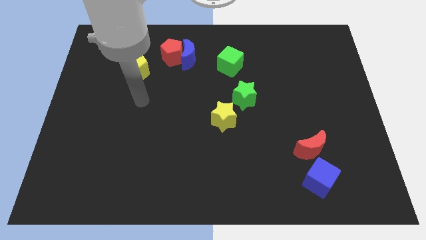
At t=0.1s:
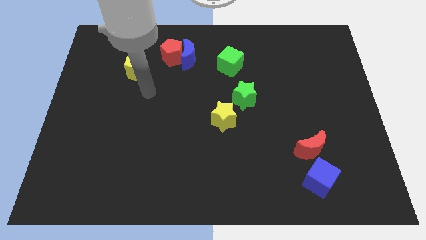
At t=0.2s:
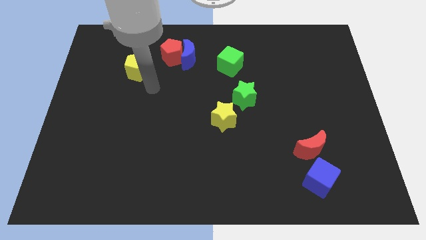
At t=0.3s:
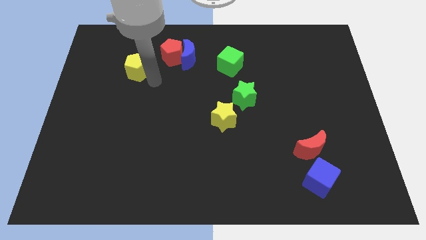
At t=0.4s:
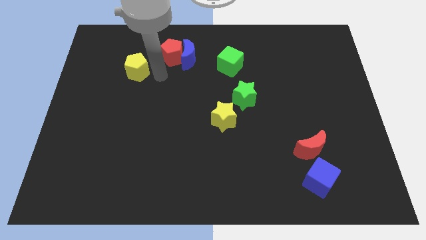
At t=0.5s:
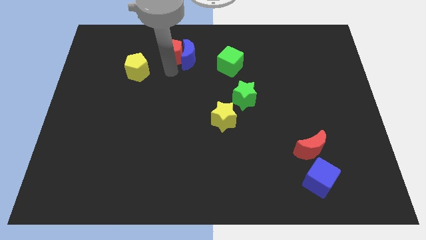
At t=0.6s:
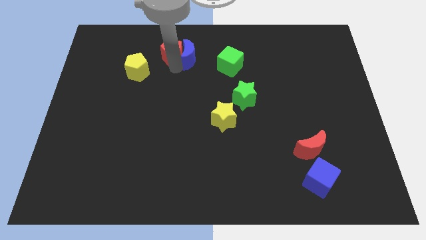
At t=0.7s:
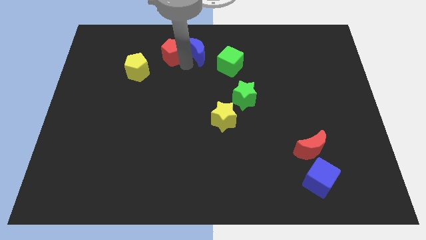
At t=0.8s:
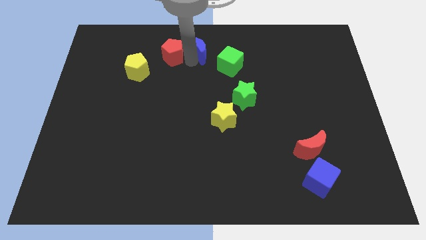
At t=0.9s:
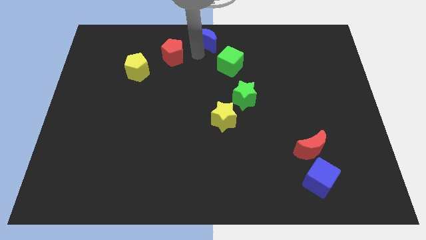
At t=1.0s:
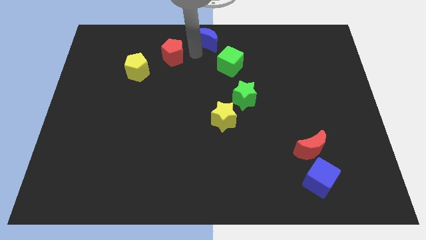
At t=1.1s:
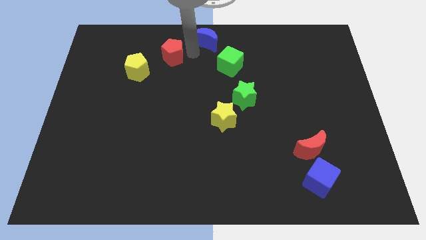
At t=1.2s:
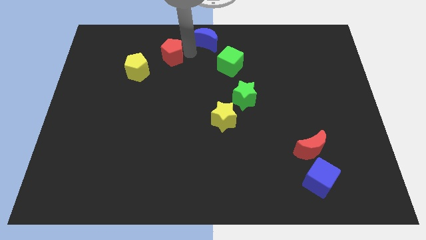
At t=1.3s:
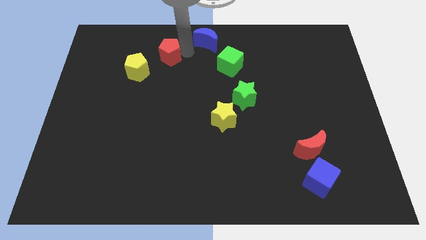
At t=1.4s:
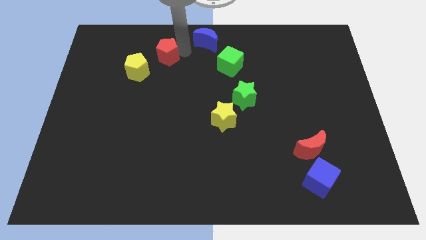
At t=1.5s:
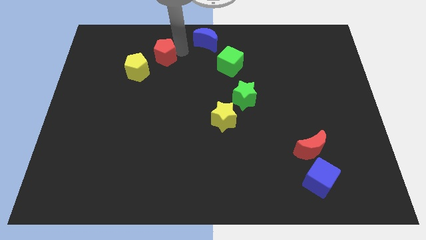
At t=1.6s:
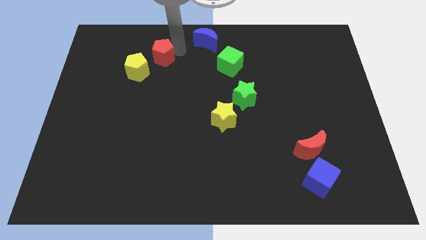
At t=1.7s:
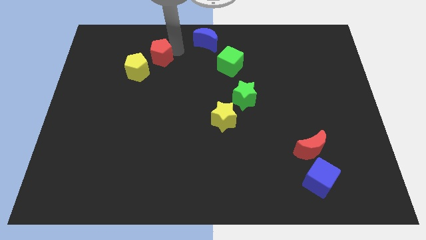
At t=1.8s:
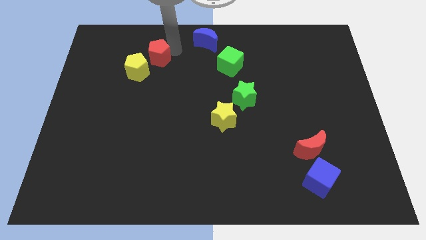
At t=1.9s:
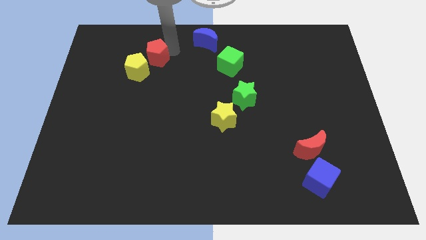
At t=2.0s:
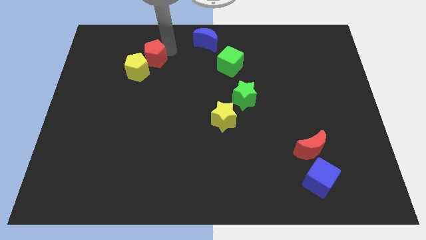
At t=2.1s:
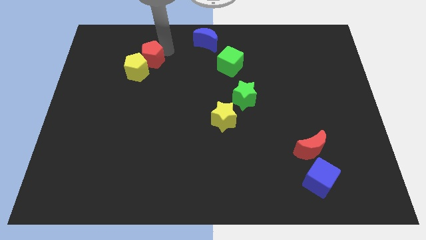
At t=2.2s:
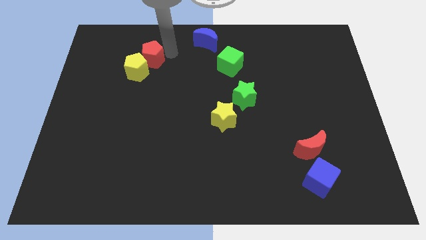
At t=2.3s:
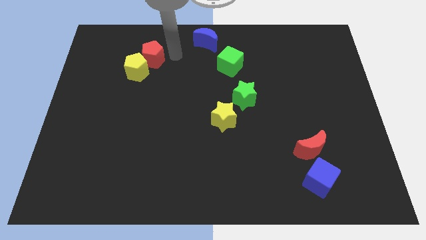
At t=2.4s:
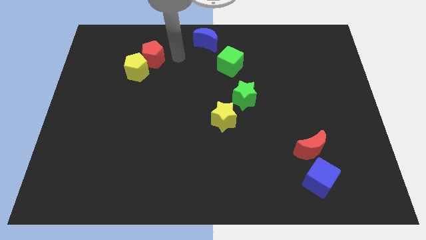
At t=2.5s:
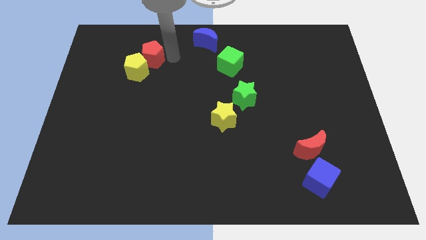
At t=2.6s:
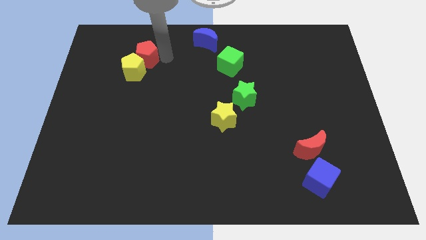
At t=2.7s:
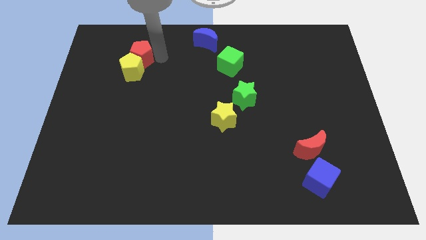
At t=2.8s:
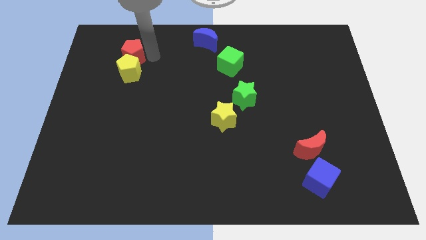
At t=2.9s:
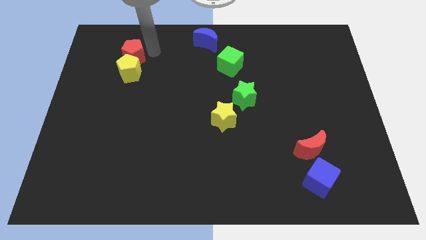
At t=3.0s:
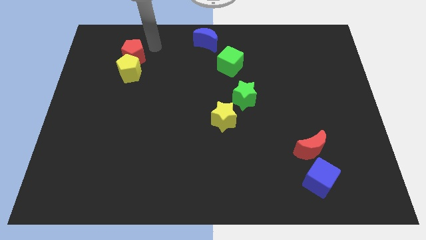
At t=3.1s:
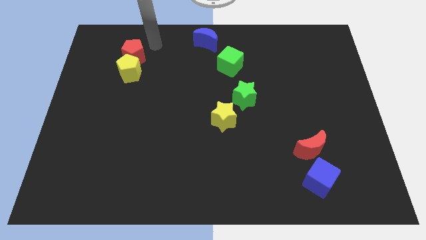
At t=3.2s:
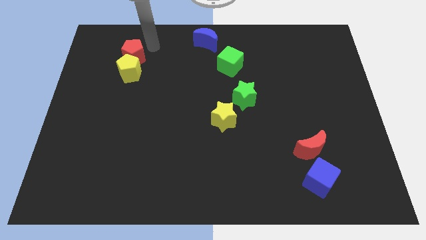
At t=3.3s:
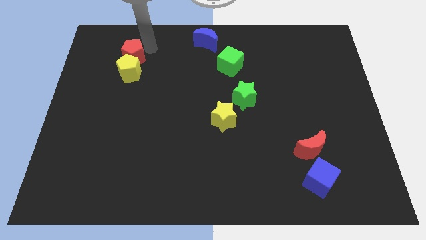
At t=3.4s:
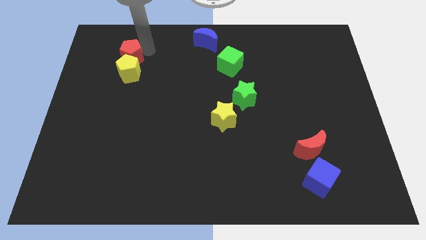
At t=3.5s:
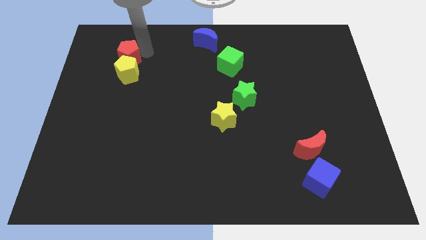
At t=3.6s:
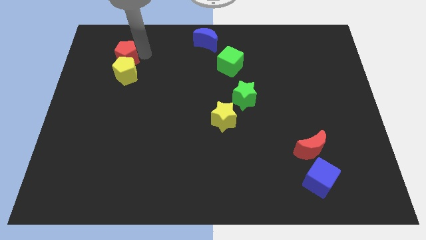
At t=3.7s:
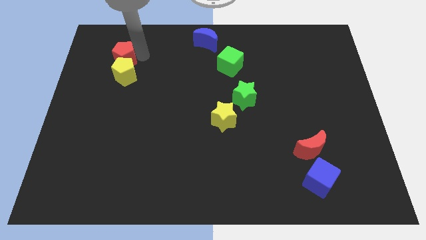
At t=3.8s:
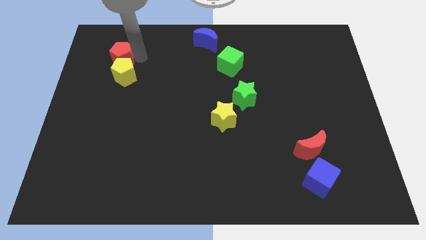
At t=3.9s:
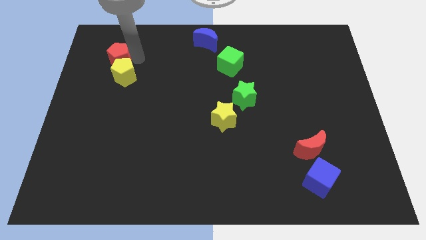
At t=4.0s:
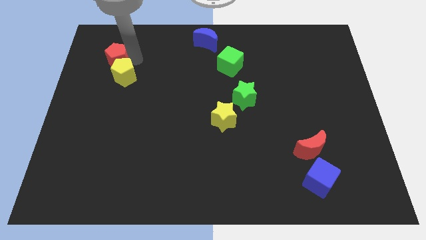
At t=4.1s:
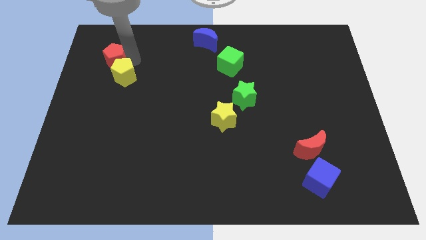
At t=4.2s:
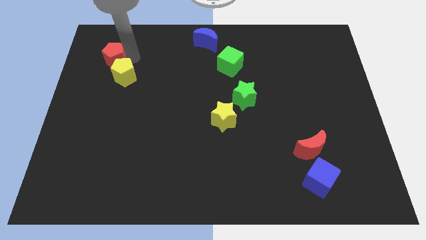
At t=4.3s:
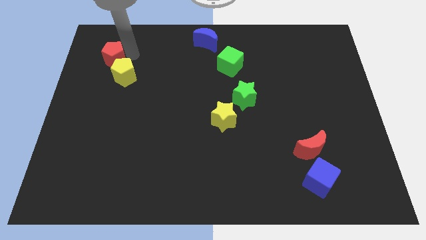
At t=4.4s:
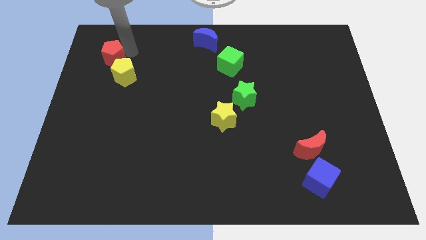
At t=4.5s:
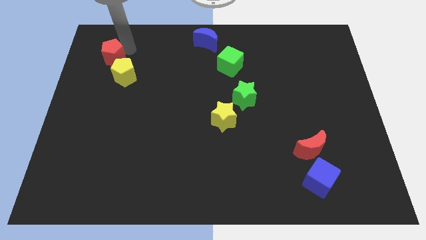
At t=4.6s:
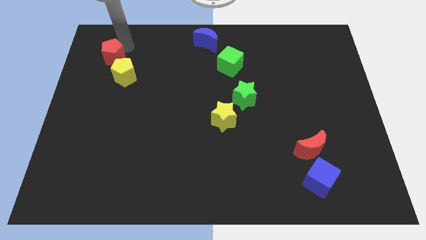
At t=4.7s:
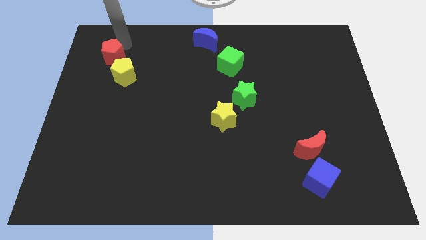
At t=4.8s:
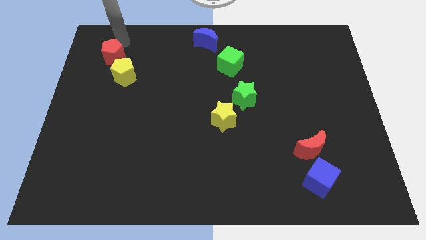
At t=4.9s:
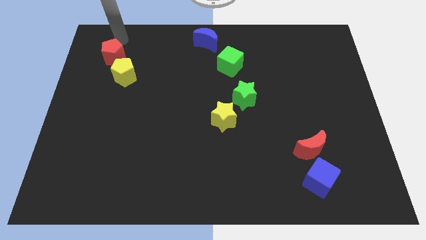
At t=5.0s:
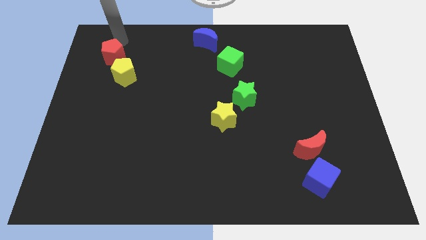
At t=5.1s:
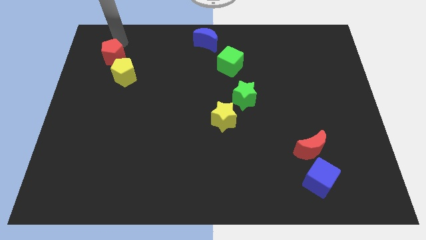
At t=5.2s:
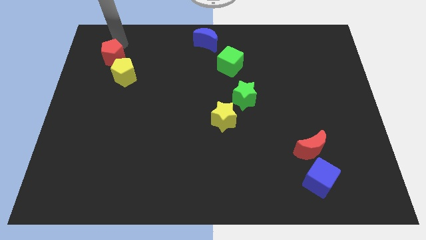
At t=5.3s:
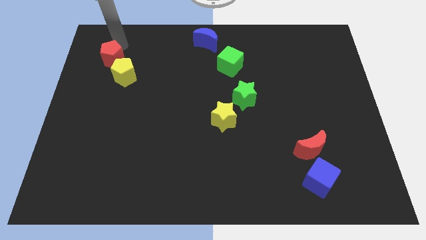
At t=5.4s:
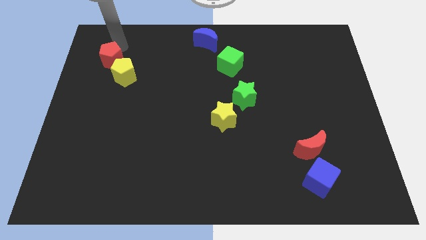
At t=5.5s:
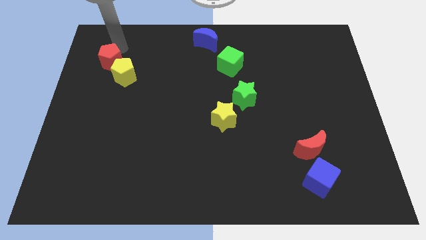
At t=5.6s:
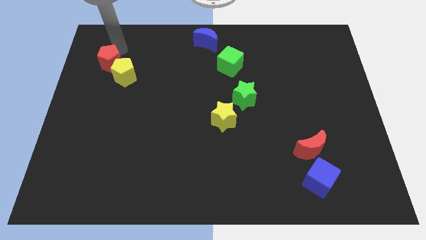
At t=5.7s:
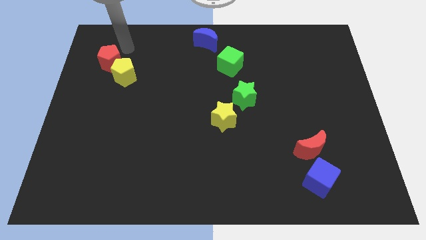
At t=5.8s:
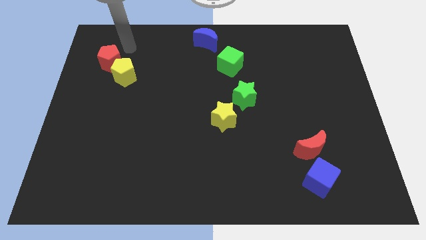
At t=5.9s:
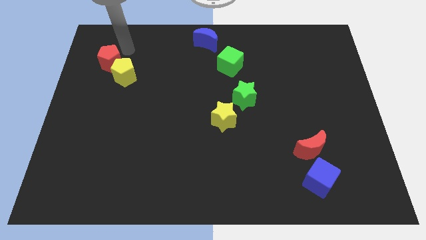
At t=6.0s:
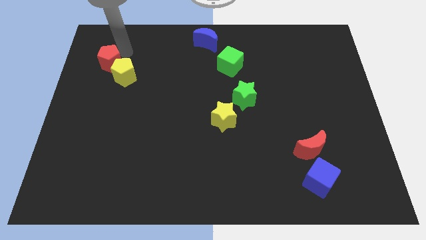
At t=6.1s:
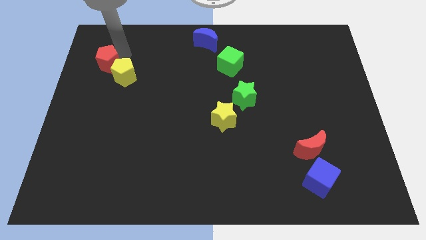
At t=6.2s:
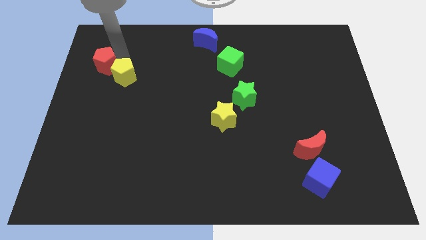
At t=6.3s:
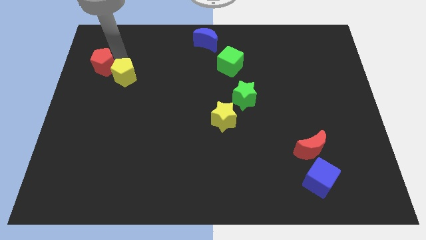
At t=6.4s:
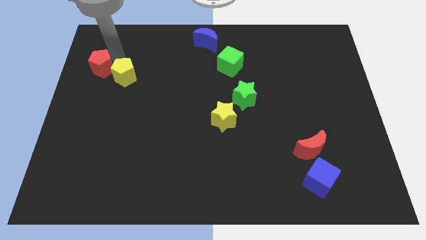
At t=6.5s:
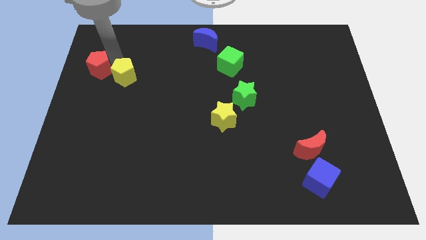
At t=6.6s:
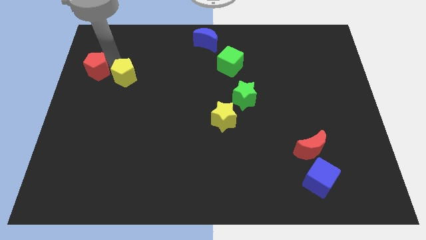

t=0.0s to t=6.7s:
push the red pentagon to the center left
